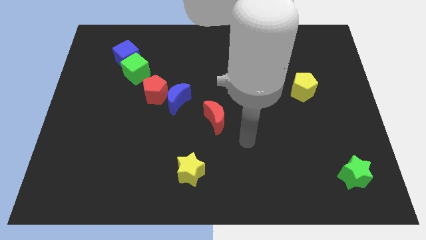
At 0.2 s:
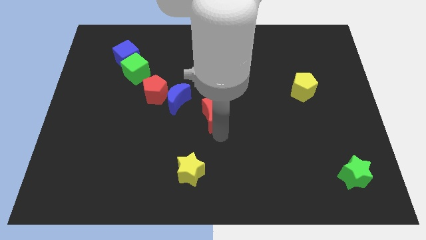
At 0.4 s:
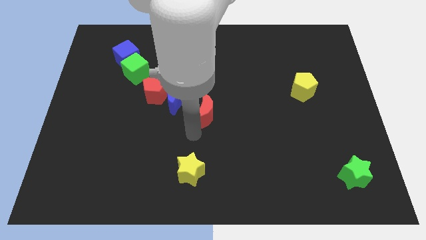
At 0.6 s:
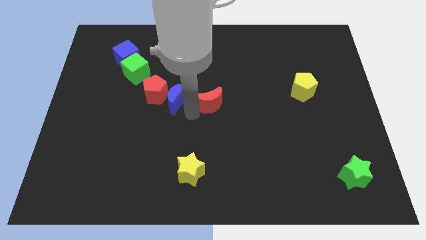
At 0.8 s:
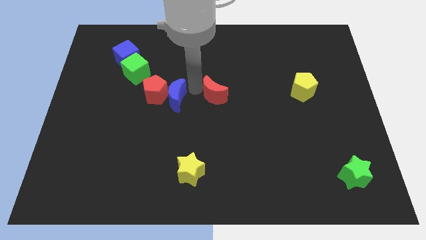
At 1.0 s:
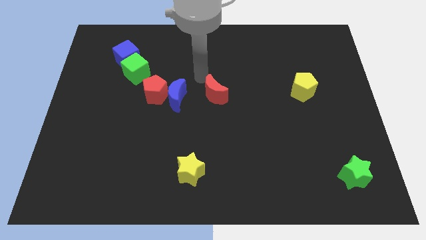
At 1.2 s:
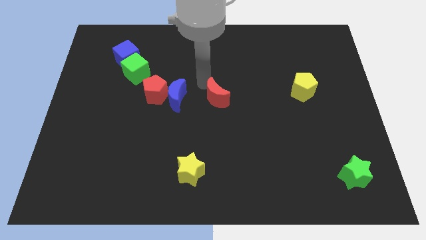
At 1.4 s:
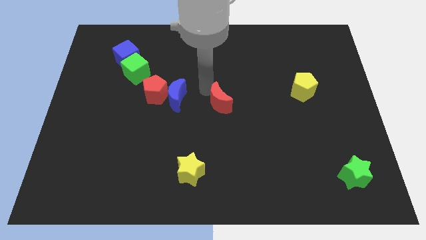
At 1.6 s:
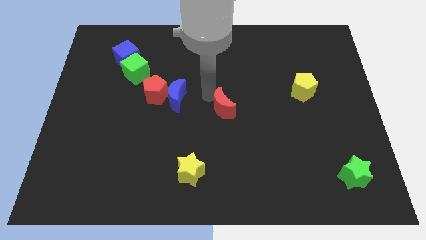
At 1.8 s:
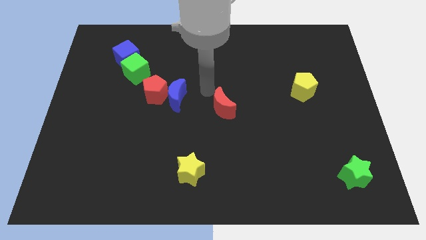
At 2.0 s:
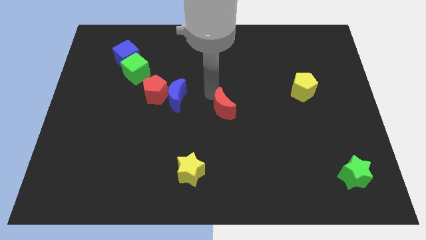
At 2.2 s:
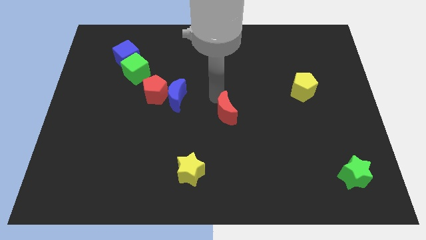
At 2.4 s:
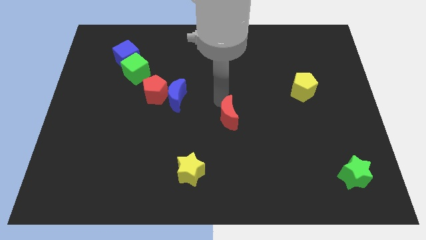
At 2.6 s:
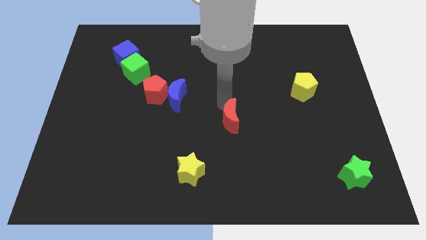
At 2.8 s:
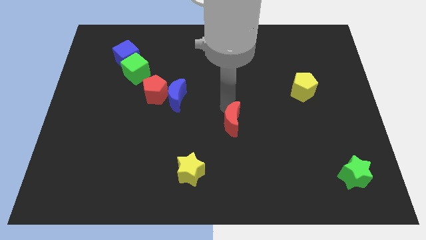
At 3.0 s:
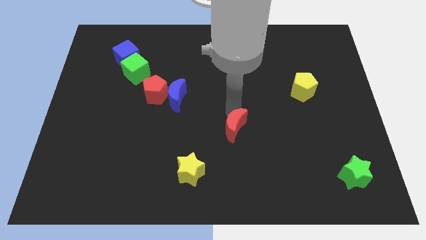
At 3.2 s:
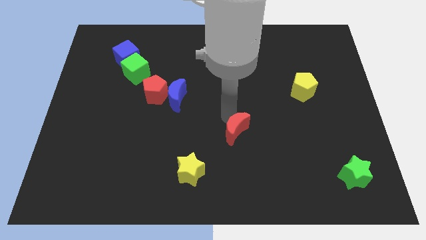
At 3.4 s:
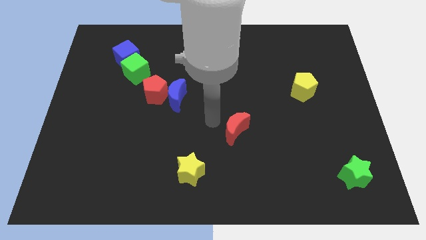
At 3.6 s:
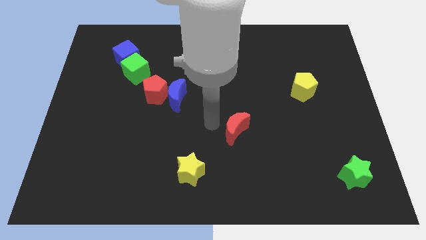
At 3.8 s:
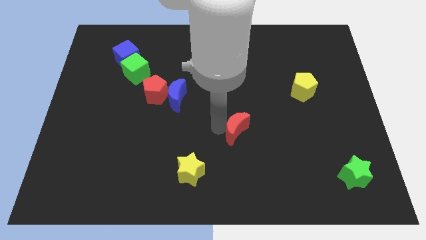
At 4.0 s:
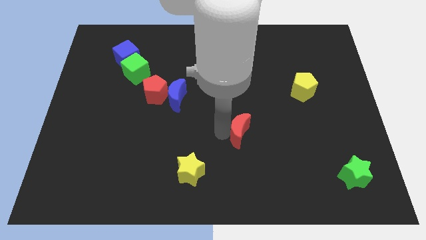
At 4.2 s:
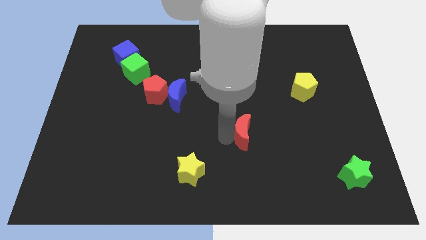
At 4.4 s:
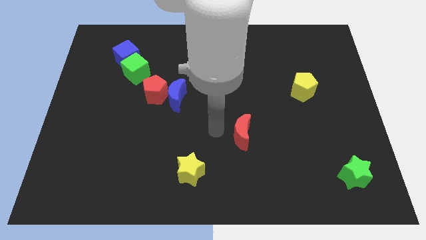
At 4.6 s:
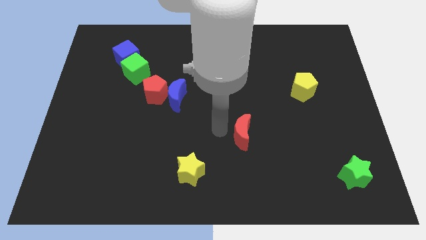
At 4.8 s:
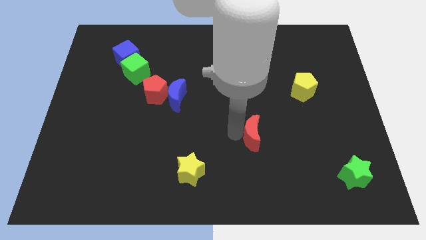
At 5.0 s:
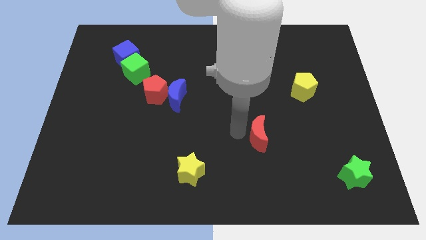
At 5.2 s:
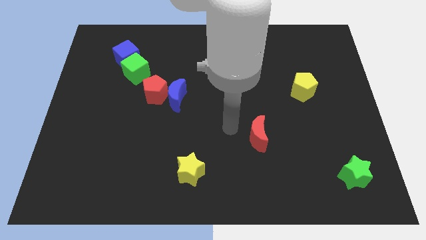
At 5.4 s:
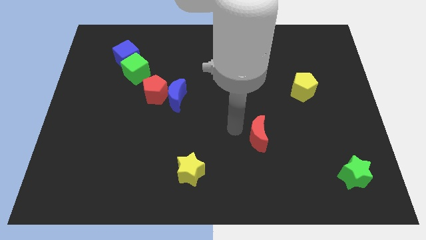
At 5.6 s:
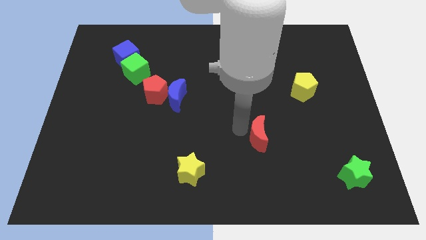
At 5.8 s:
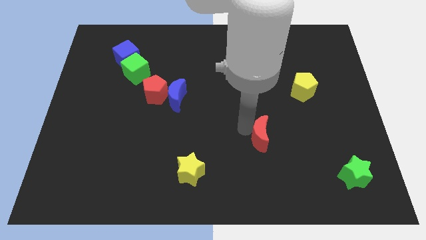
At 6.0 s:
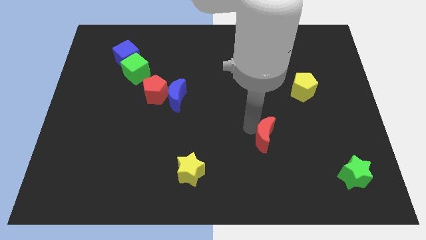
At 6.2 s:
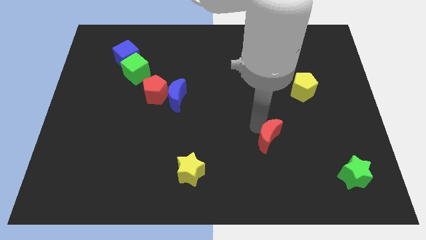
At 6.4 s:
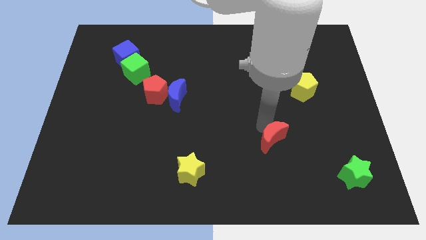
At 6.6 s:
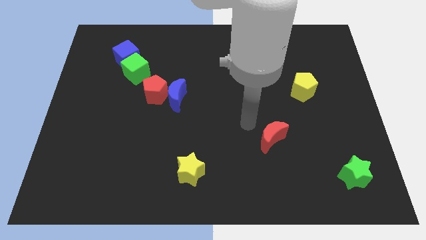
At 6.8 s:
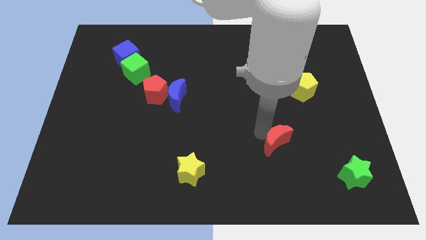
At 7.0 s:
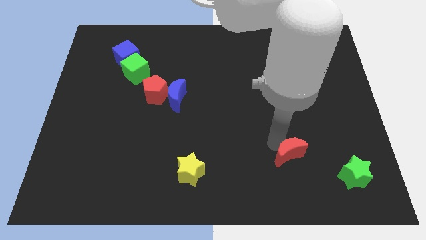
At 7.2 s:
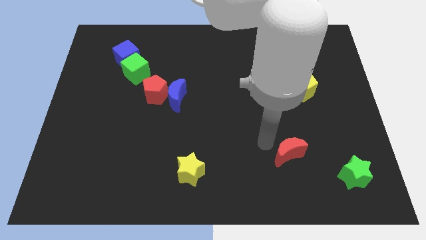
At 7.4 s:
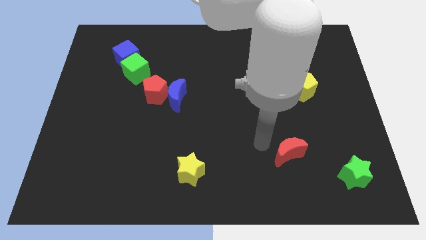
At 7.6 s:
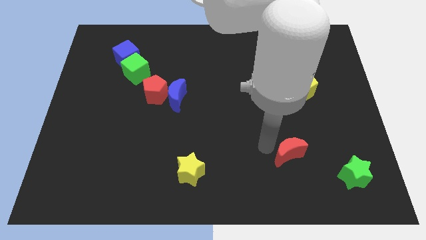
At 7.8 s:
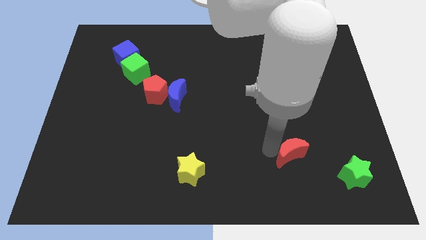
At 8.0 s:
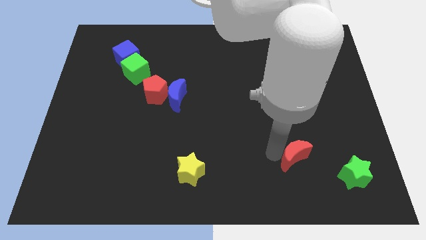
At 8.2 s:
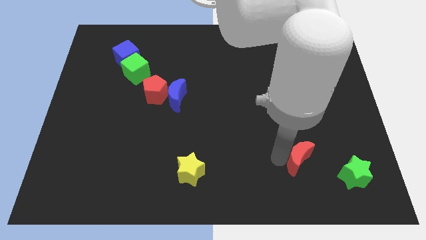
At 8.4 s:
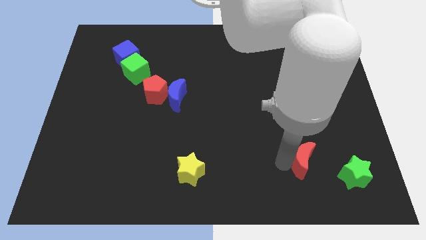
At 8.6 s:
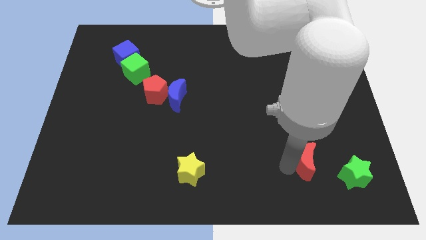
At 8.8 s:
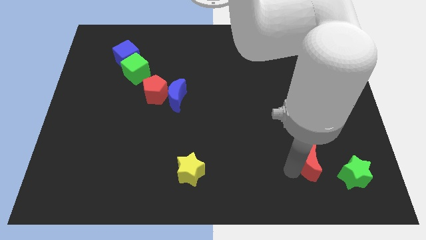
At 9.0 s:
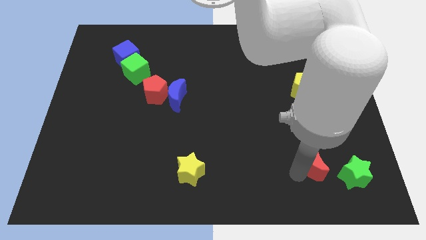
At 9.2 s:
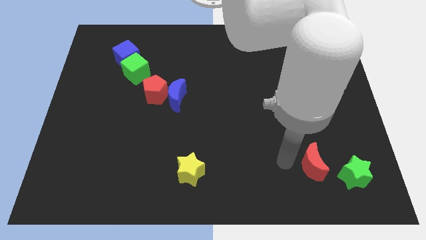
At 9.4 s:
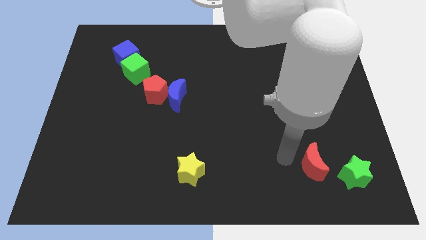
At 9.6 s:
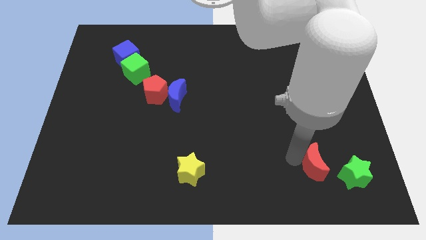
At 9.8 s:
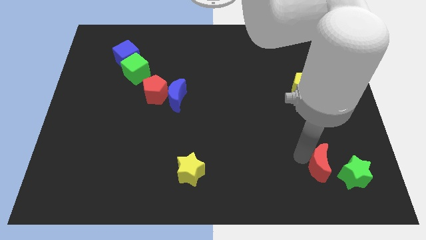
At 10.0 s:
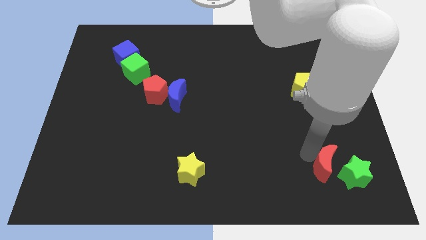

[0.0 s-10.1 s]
slide the red moon close to the green star

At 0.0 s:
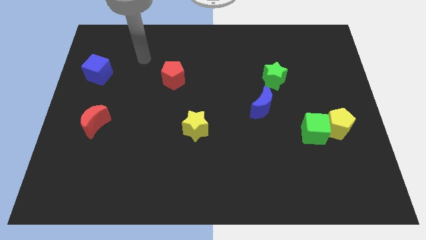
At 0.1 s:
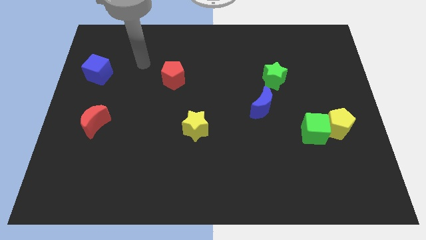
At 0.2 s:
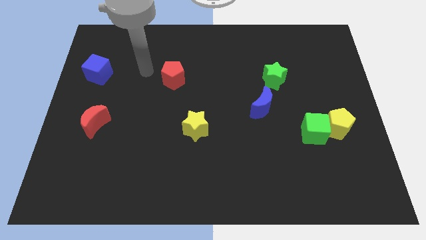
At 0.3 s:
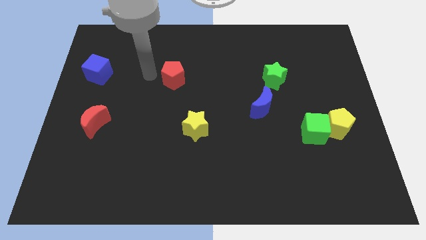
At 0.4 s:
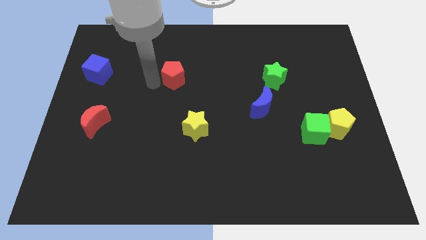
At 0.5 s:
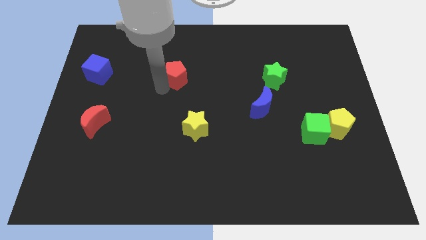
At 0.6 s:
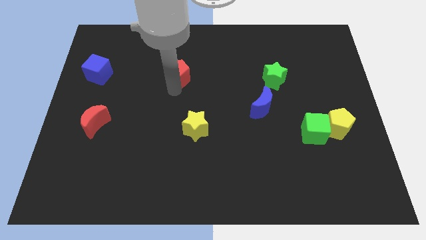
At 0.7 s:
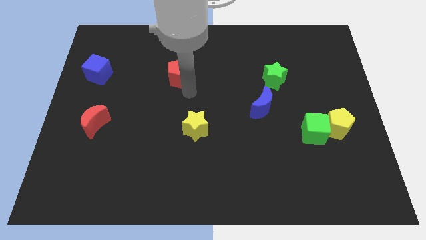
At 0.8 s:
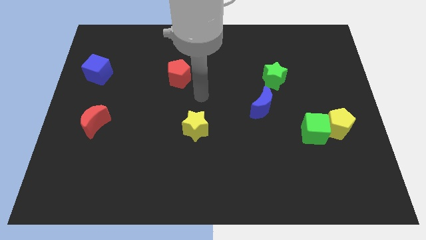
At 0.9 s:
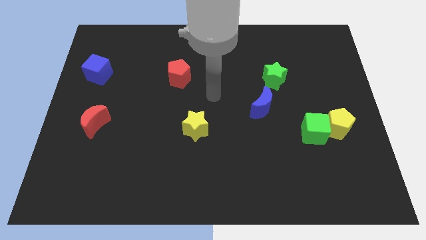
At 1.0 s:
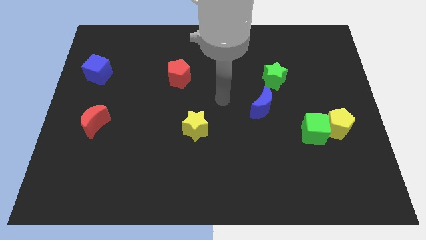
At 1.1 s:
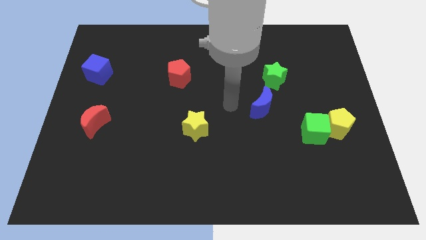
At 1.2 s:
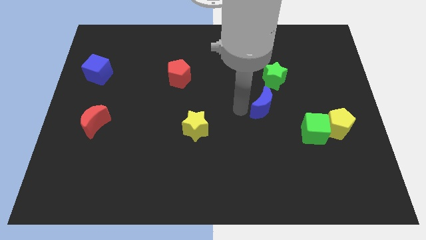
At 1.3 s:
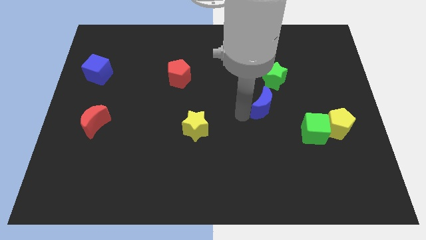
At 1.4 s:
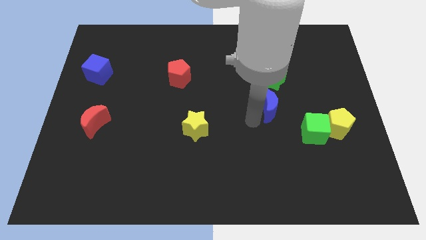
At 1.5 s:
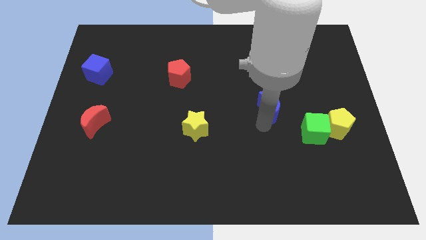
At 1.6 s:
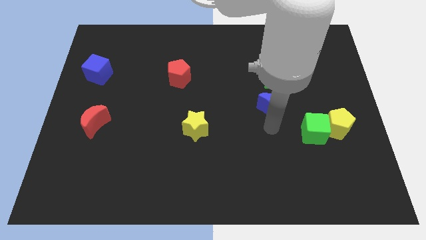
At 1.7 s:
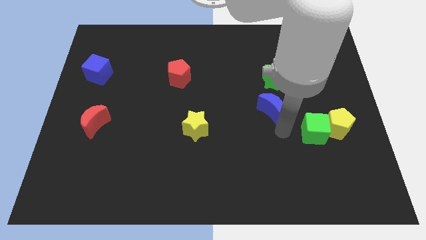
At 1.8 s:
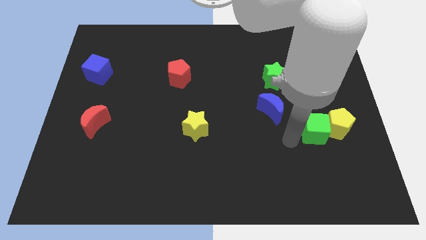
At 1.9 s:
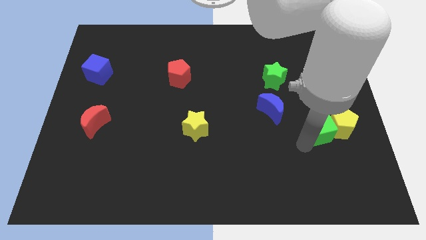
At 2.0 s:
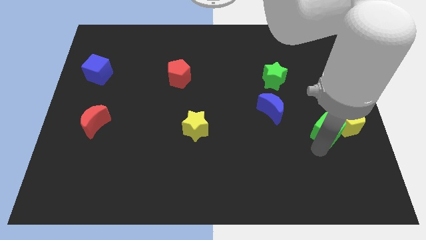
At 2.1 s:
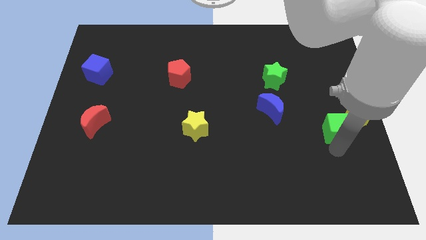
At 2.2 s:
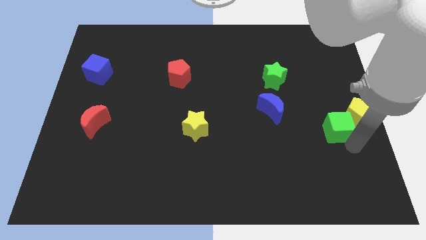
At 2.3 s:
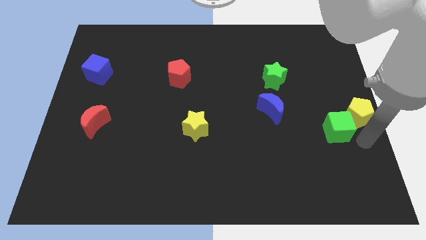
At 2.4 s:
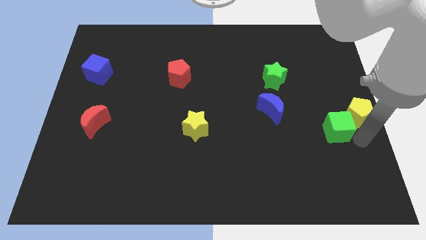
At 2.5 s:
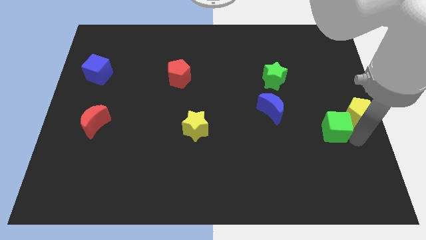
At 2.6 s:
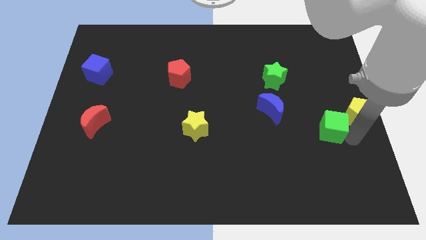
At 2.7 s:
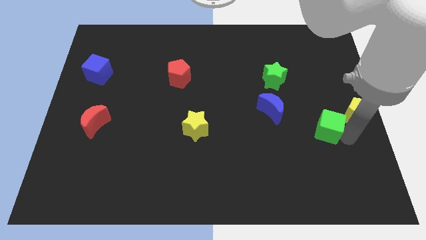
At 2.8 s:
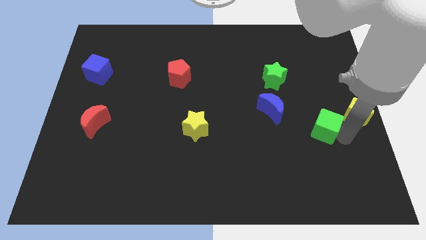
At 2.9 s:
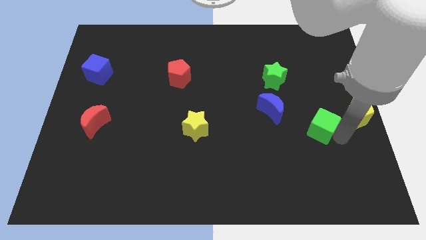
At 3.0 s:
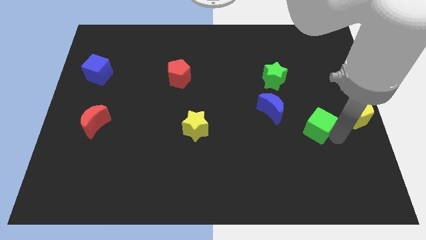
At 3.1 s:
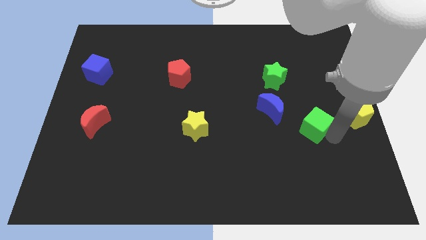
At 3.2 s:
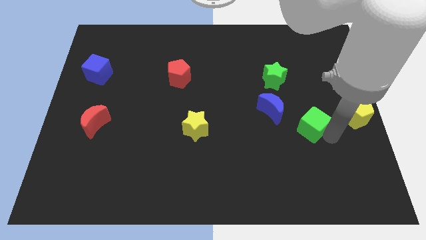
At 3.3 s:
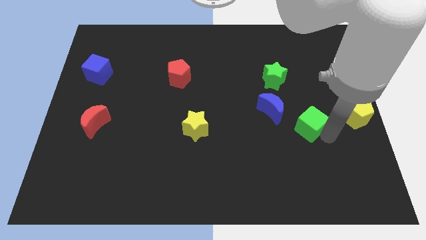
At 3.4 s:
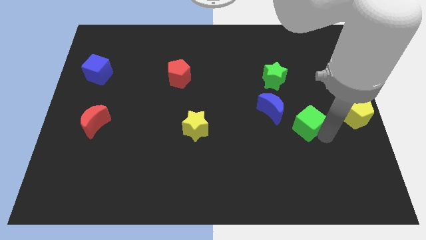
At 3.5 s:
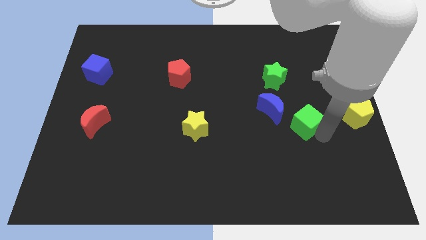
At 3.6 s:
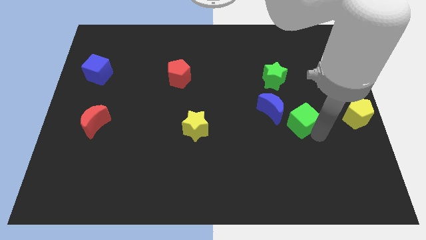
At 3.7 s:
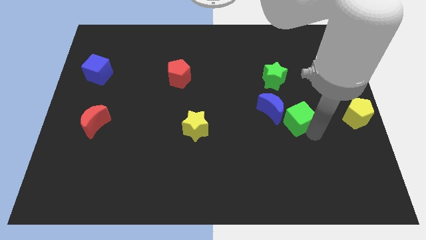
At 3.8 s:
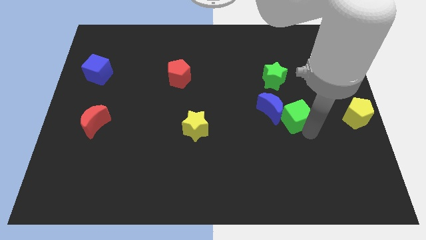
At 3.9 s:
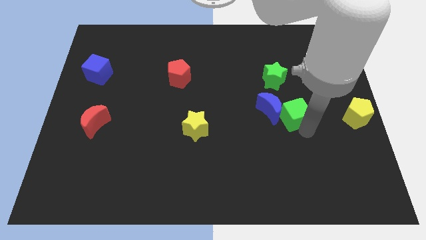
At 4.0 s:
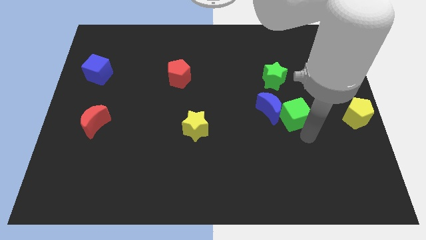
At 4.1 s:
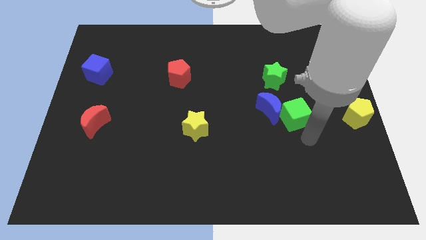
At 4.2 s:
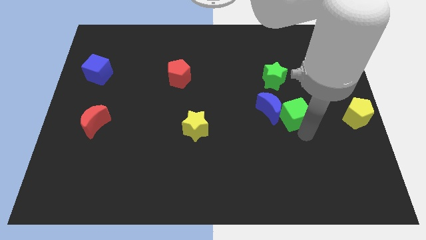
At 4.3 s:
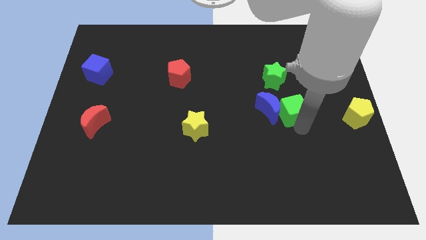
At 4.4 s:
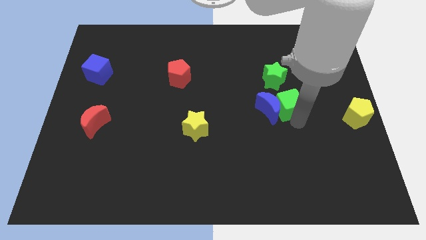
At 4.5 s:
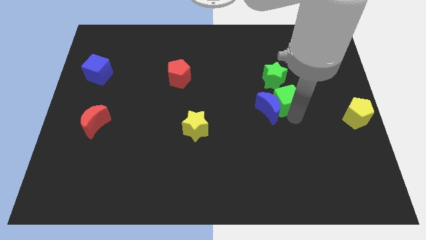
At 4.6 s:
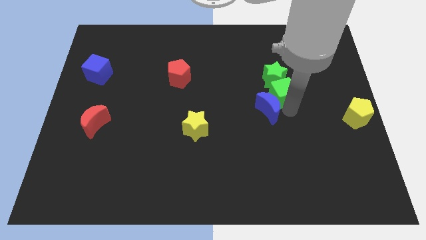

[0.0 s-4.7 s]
push the green cube next to the green star
